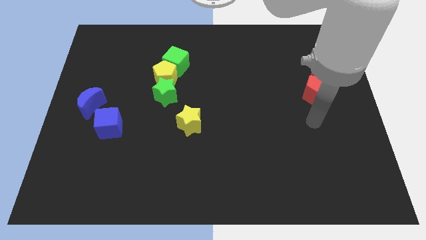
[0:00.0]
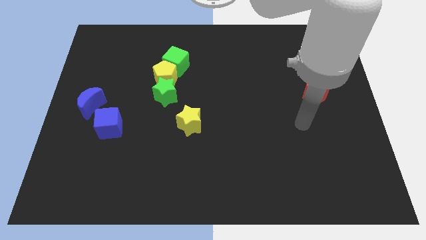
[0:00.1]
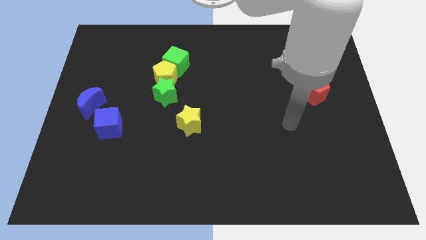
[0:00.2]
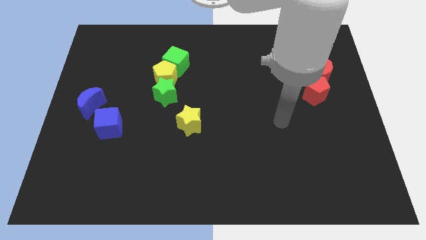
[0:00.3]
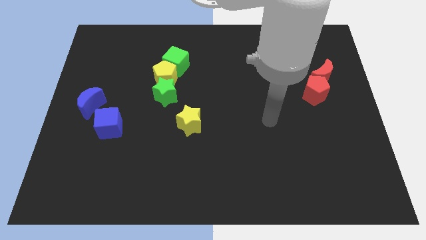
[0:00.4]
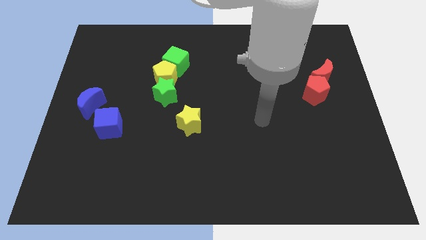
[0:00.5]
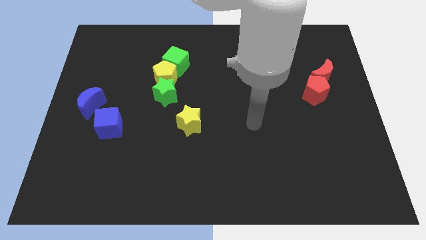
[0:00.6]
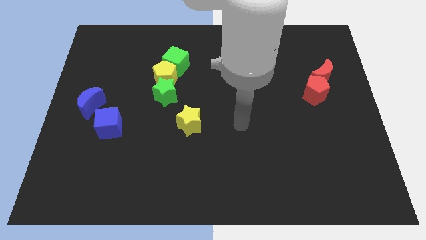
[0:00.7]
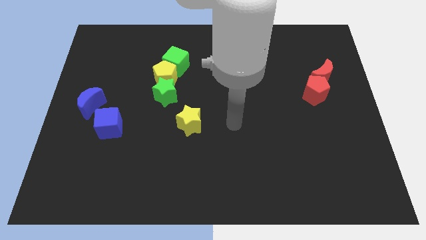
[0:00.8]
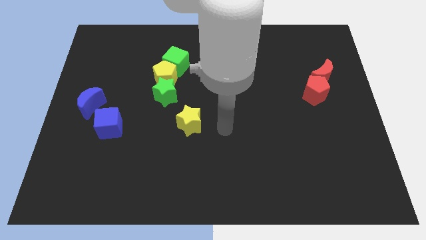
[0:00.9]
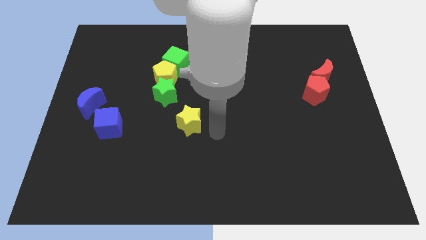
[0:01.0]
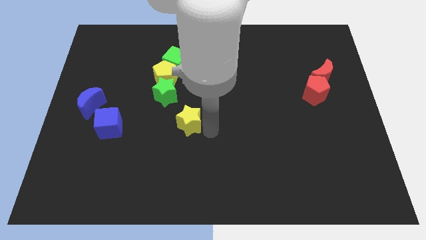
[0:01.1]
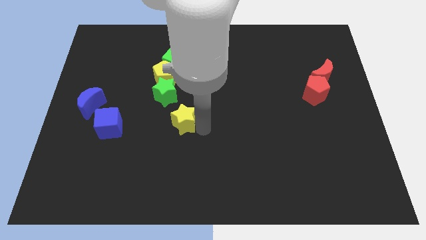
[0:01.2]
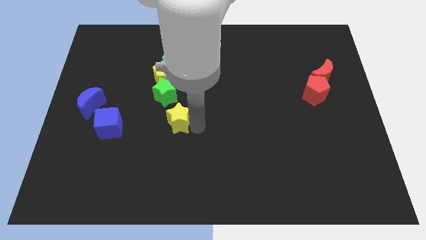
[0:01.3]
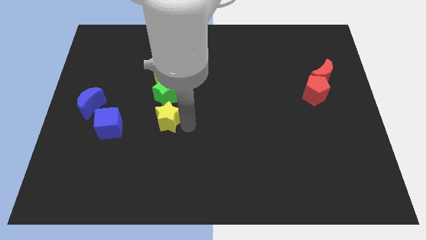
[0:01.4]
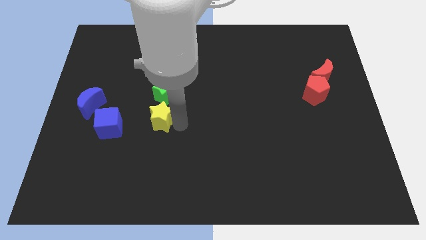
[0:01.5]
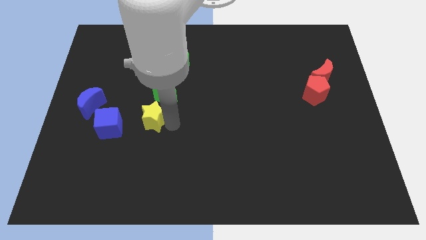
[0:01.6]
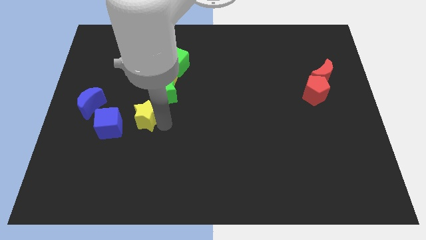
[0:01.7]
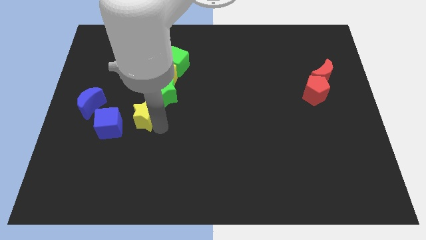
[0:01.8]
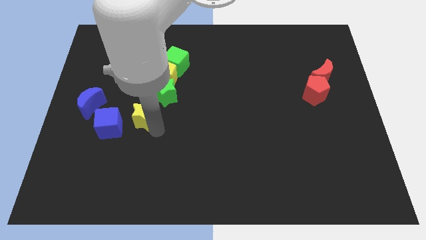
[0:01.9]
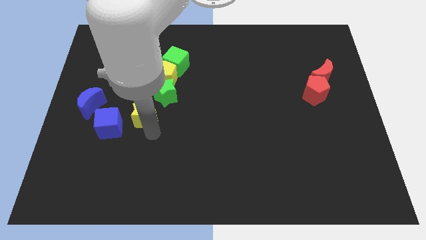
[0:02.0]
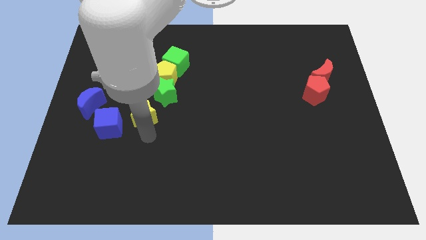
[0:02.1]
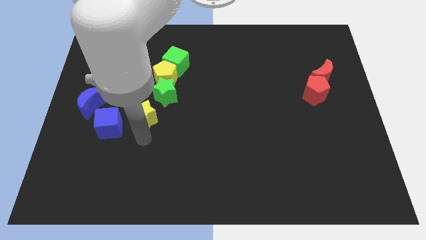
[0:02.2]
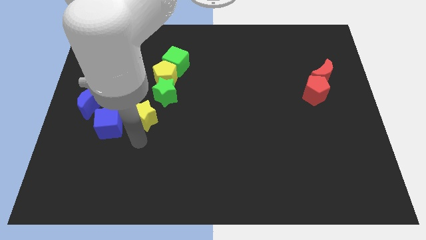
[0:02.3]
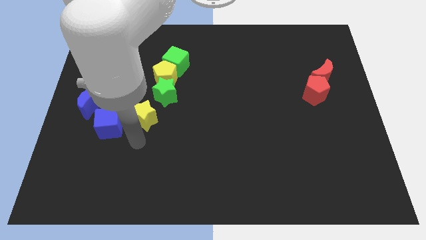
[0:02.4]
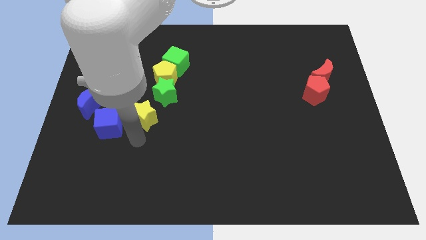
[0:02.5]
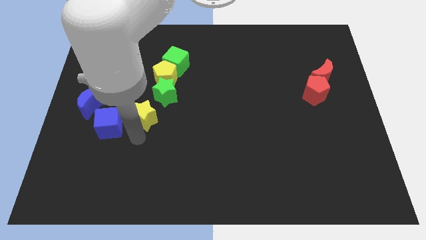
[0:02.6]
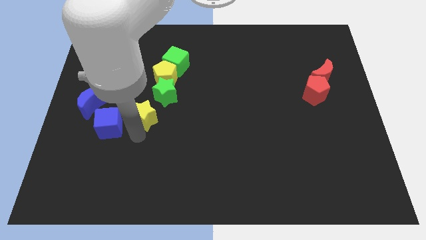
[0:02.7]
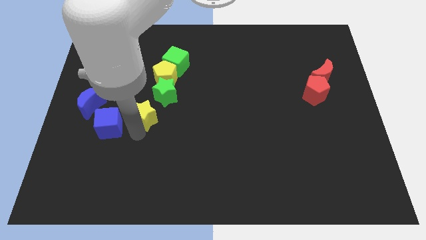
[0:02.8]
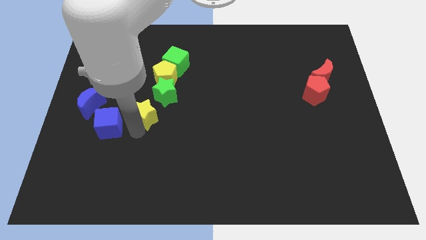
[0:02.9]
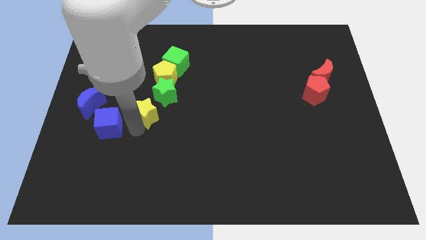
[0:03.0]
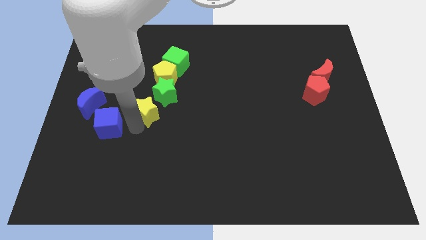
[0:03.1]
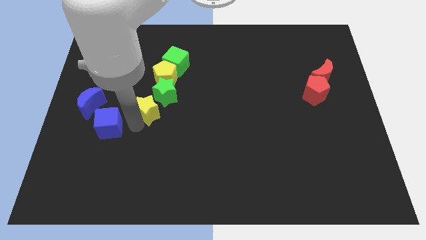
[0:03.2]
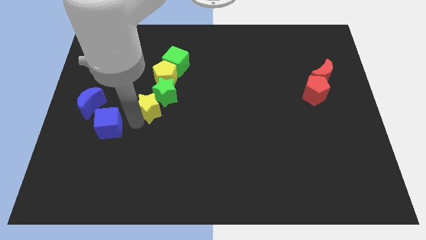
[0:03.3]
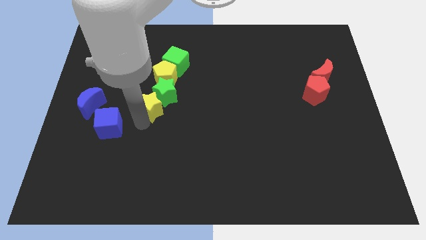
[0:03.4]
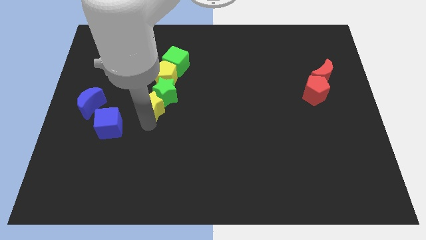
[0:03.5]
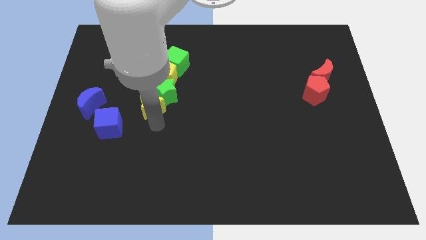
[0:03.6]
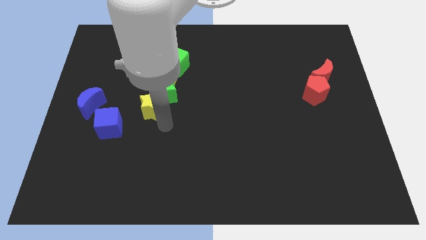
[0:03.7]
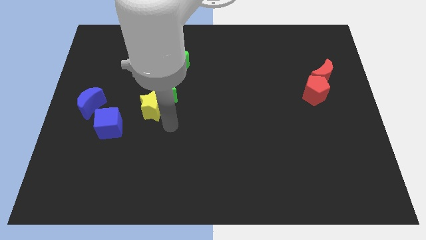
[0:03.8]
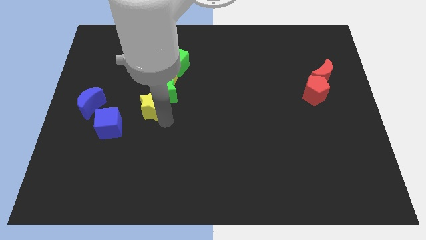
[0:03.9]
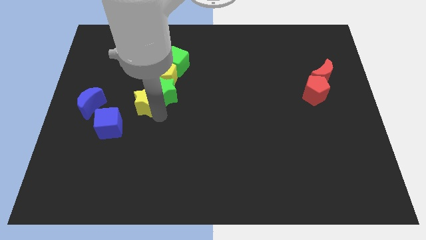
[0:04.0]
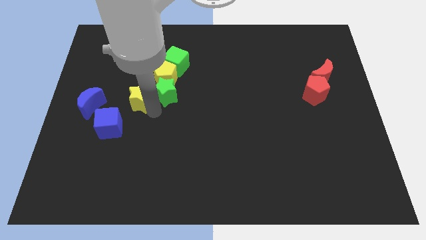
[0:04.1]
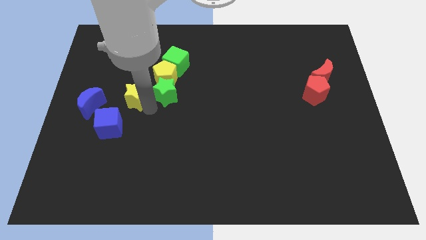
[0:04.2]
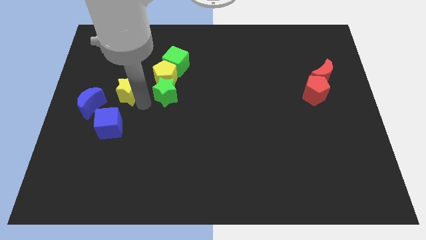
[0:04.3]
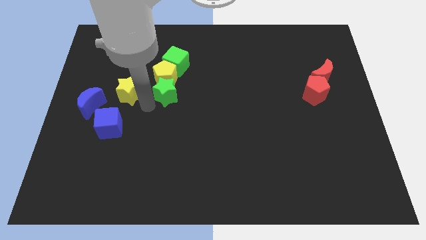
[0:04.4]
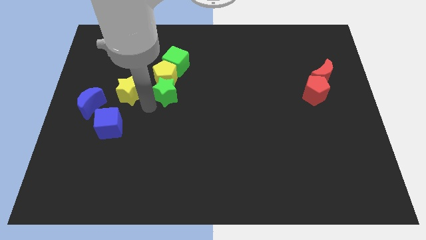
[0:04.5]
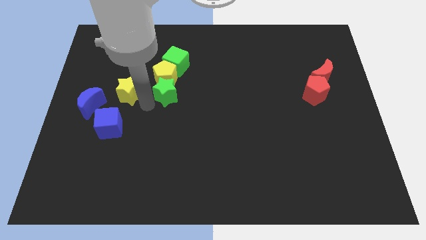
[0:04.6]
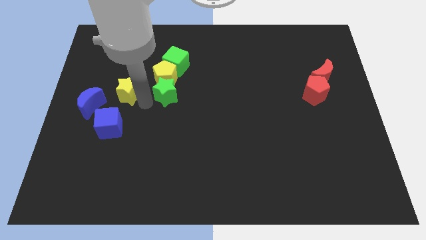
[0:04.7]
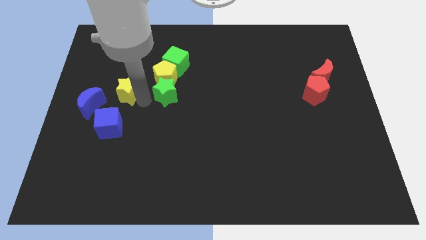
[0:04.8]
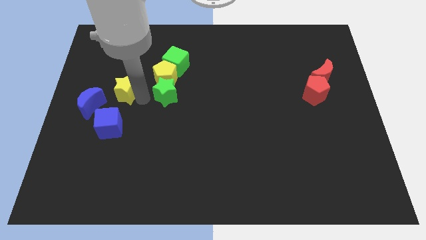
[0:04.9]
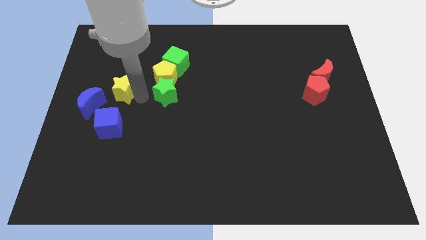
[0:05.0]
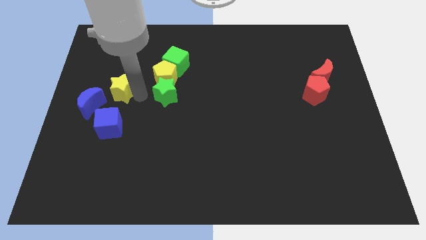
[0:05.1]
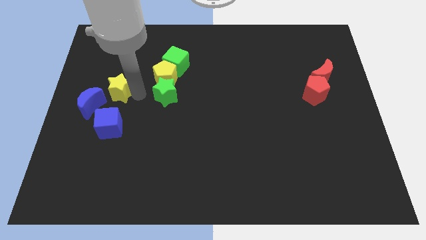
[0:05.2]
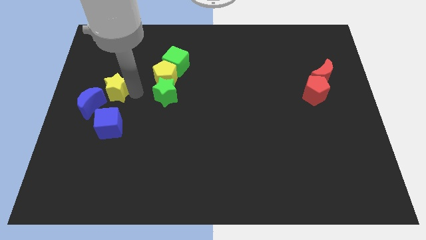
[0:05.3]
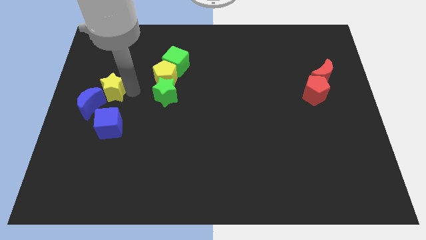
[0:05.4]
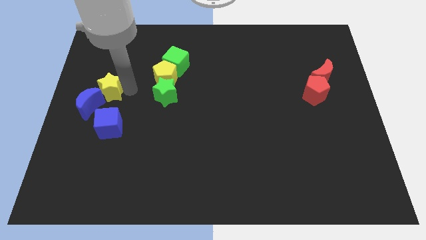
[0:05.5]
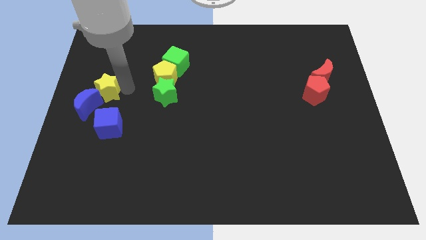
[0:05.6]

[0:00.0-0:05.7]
put the yellow star to the left side of the board

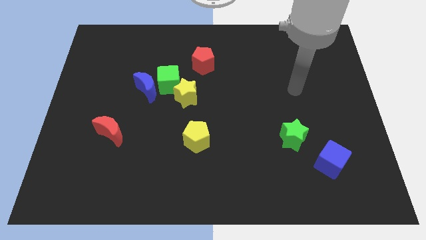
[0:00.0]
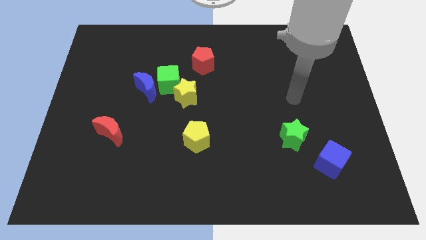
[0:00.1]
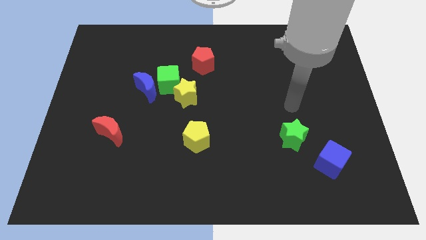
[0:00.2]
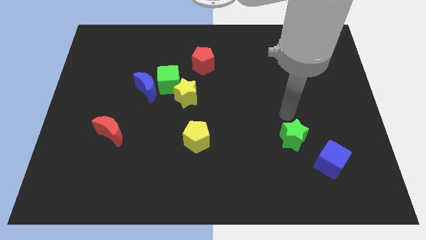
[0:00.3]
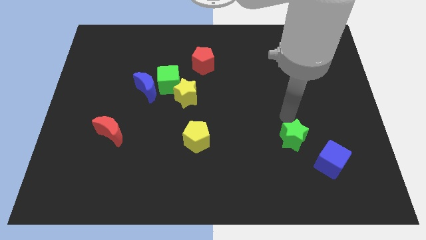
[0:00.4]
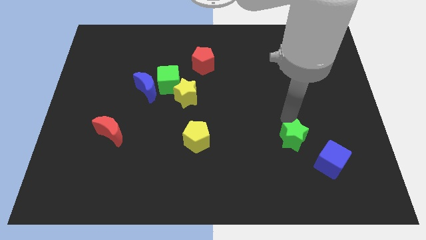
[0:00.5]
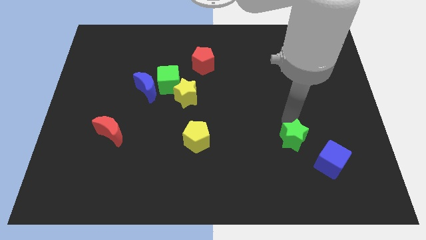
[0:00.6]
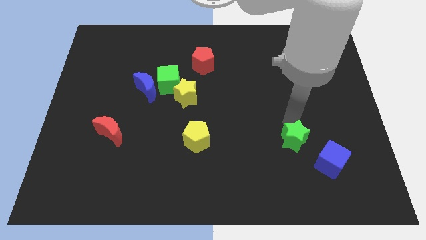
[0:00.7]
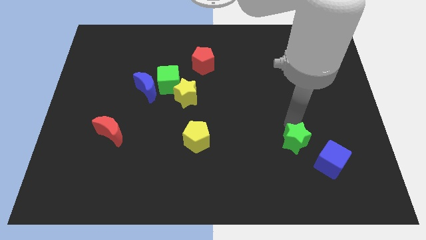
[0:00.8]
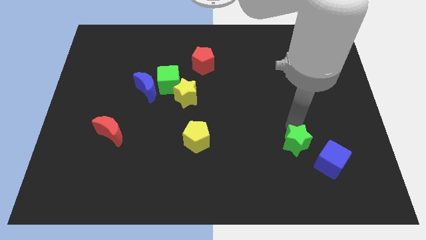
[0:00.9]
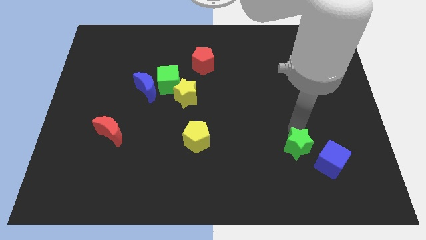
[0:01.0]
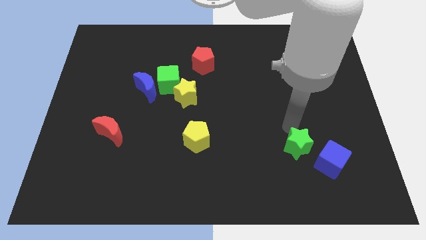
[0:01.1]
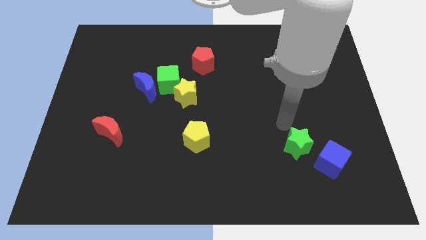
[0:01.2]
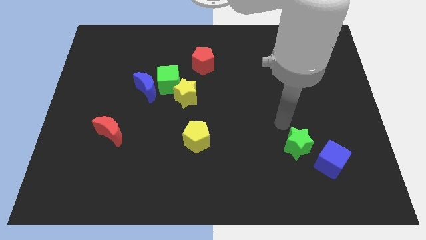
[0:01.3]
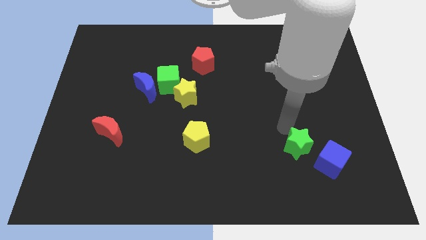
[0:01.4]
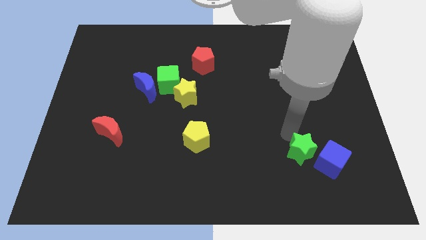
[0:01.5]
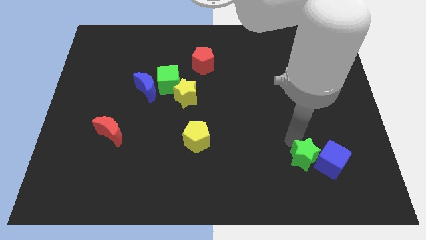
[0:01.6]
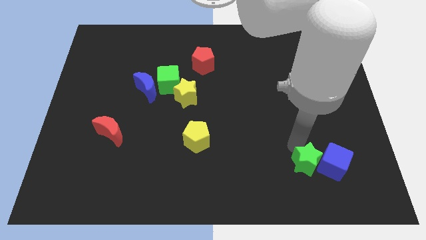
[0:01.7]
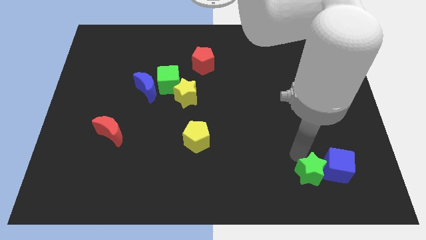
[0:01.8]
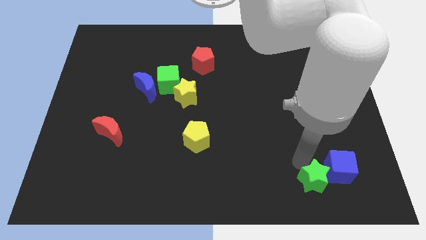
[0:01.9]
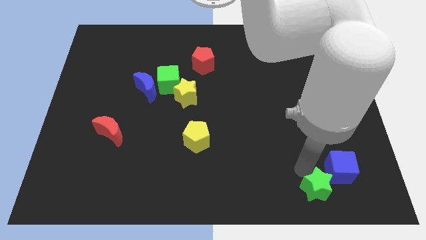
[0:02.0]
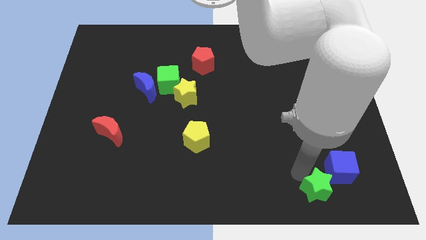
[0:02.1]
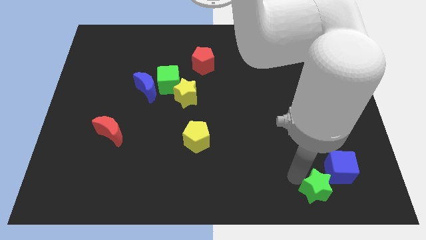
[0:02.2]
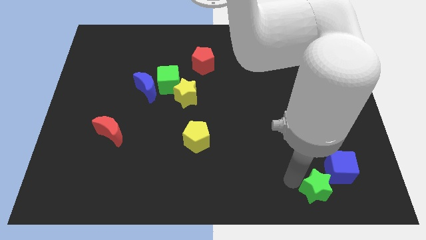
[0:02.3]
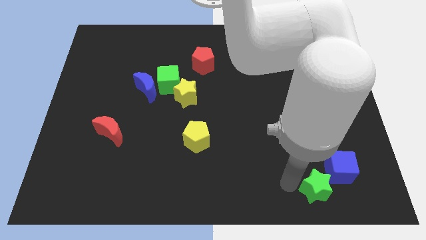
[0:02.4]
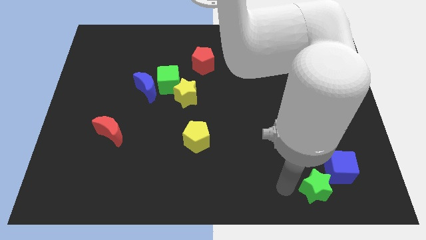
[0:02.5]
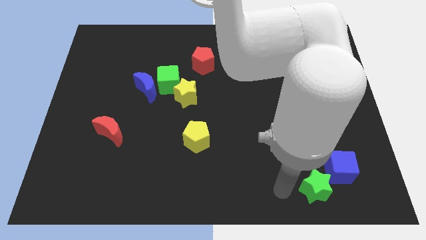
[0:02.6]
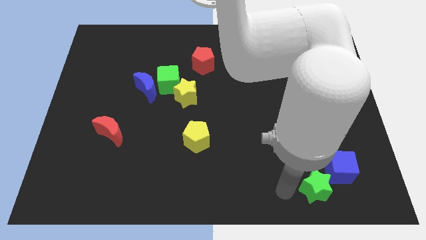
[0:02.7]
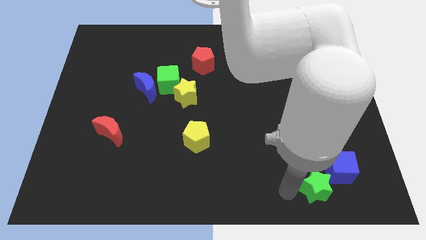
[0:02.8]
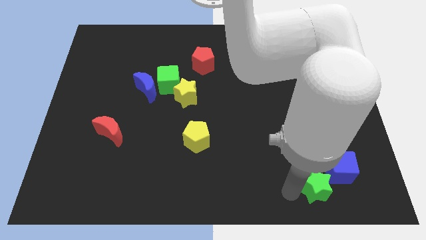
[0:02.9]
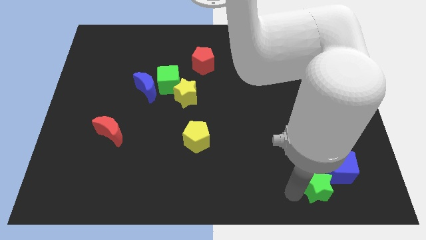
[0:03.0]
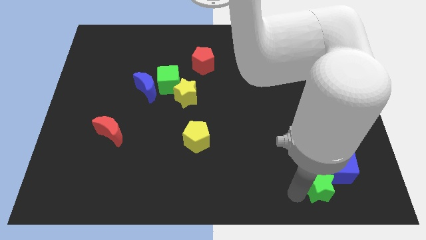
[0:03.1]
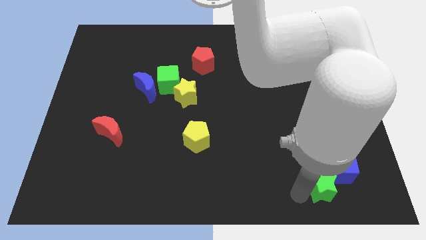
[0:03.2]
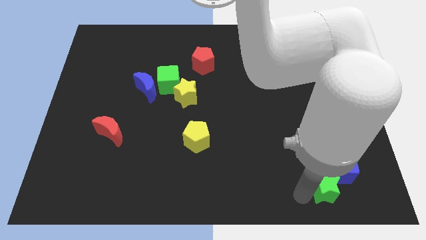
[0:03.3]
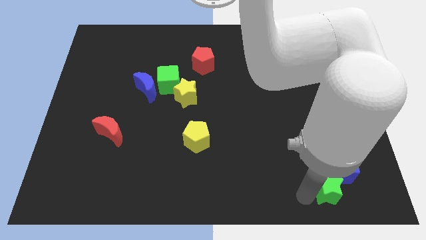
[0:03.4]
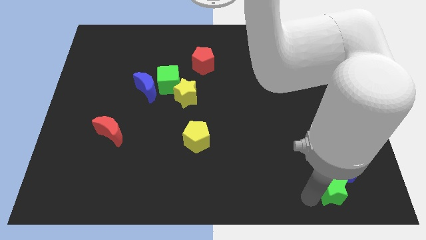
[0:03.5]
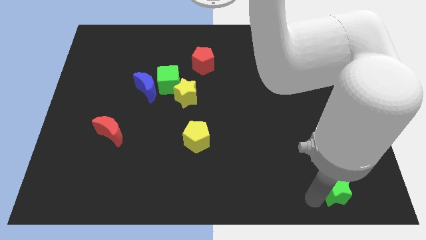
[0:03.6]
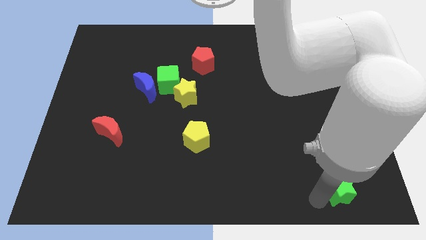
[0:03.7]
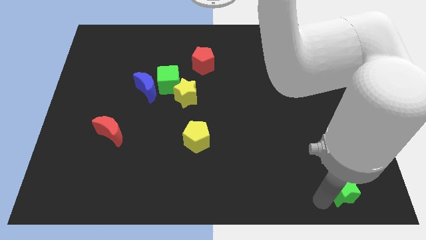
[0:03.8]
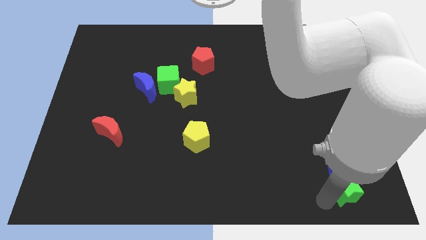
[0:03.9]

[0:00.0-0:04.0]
push the green star to the bottom right corner
